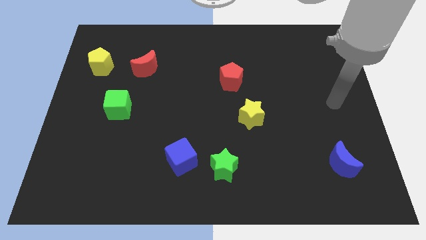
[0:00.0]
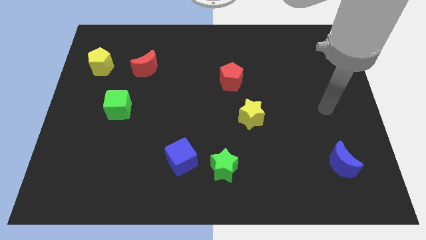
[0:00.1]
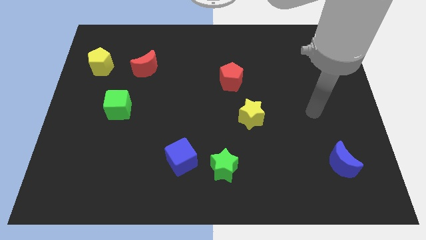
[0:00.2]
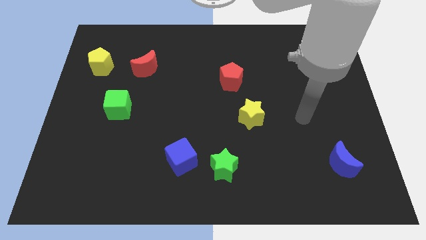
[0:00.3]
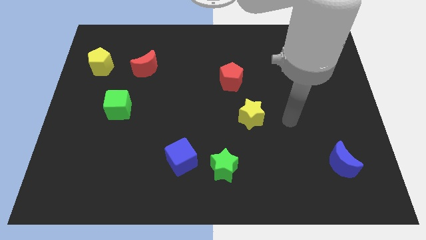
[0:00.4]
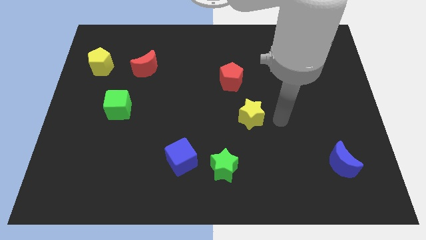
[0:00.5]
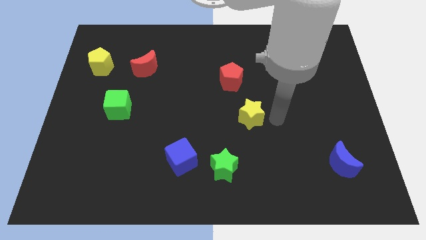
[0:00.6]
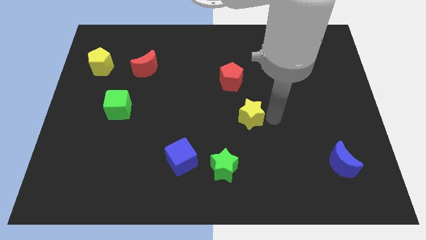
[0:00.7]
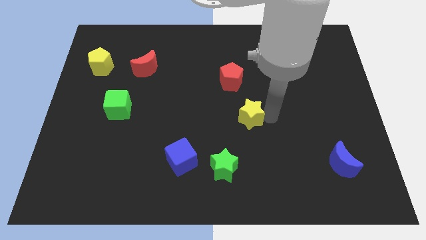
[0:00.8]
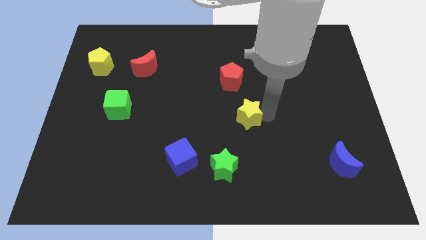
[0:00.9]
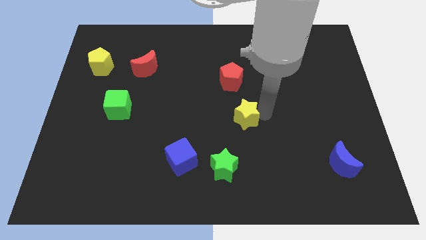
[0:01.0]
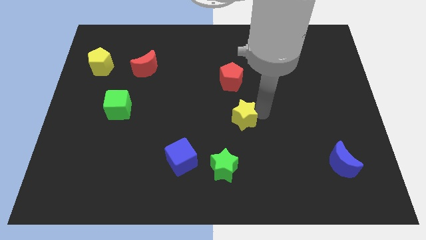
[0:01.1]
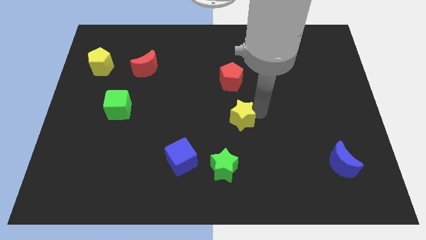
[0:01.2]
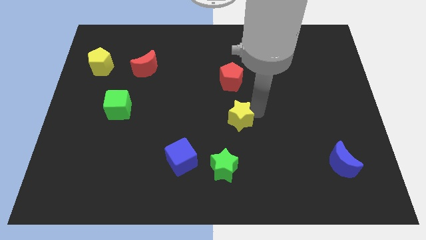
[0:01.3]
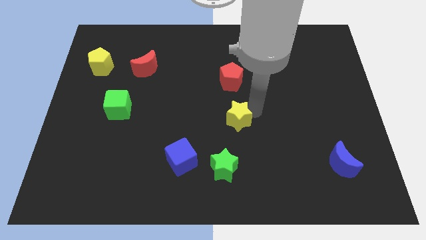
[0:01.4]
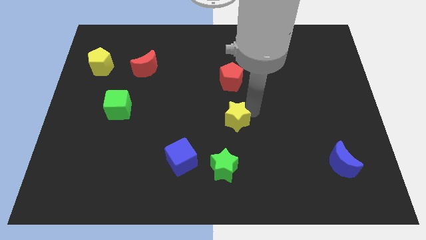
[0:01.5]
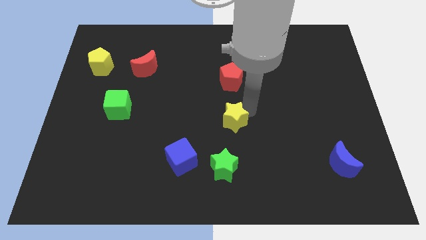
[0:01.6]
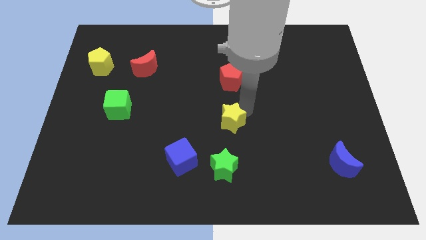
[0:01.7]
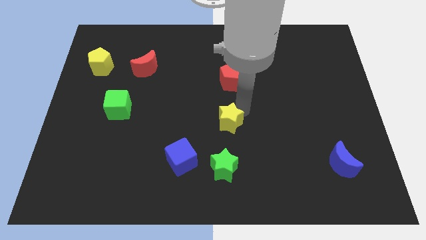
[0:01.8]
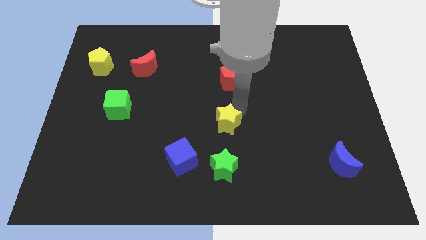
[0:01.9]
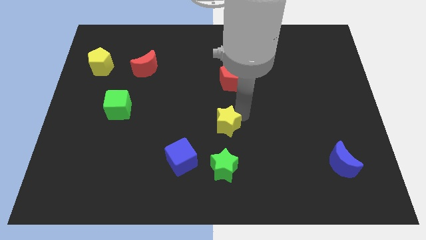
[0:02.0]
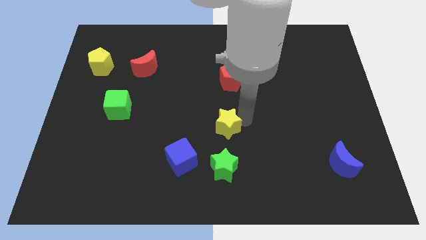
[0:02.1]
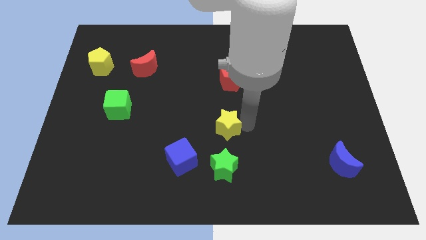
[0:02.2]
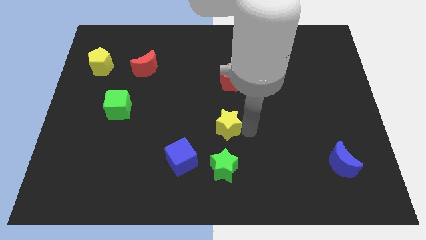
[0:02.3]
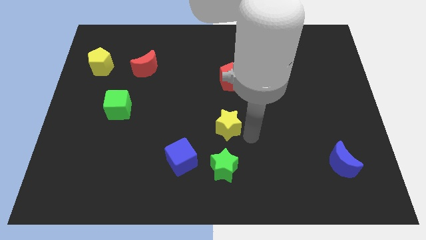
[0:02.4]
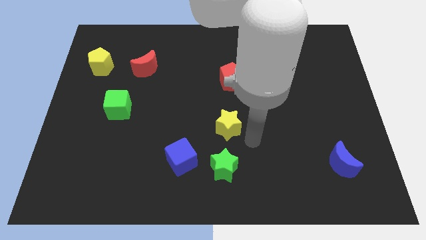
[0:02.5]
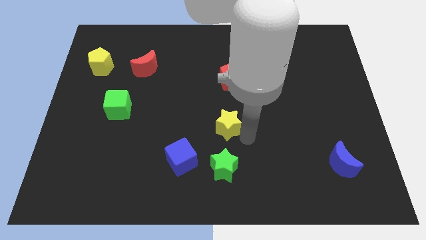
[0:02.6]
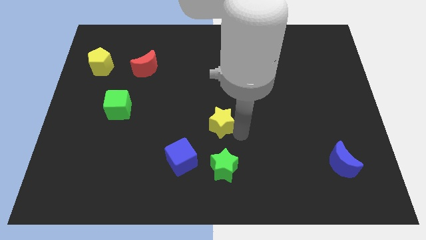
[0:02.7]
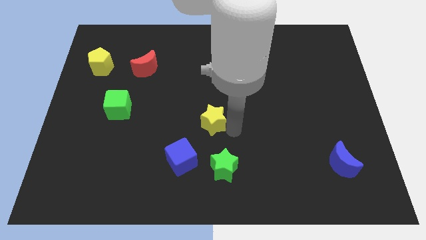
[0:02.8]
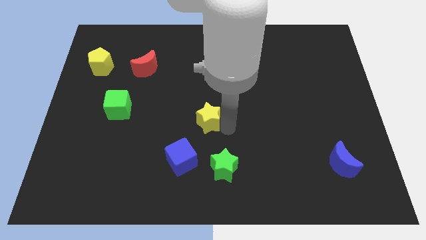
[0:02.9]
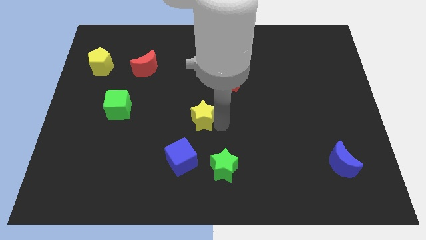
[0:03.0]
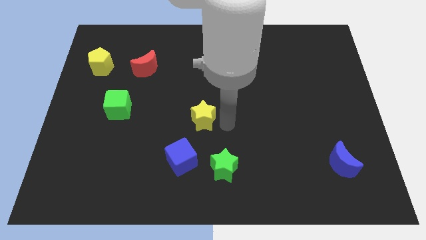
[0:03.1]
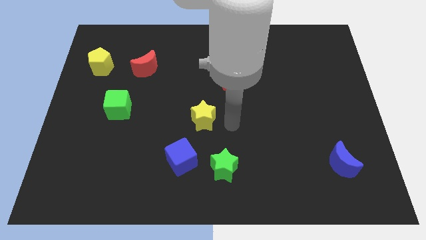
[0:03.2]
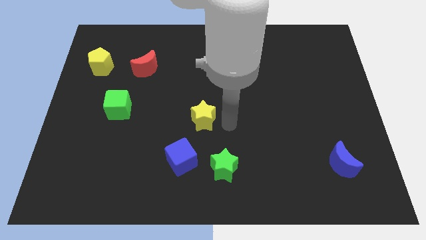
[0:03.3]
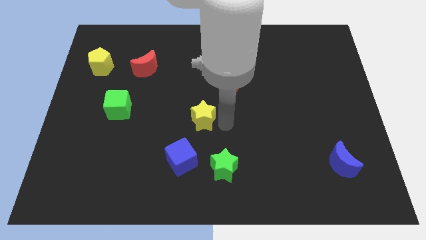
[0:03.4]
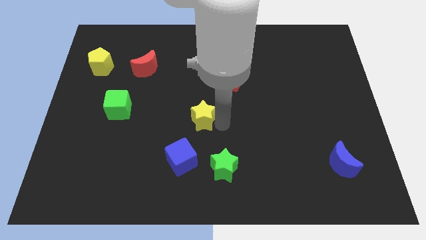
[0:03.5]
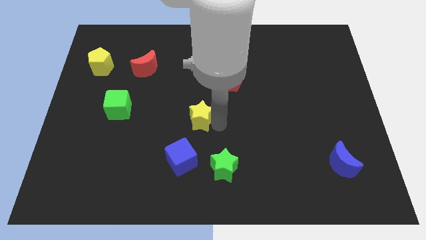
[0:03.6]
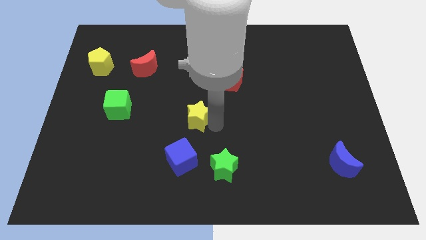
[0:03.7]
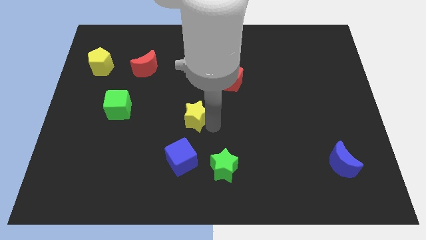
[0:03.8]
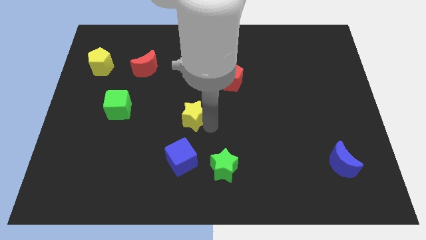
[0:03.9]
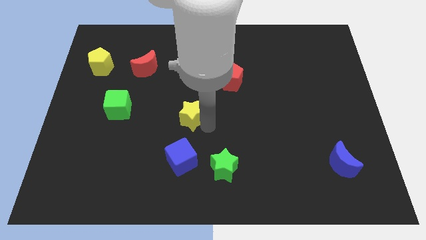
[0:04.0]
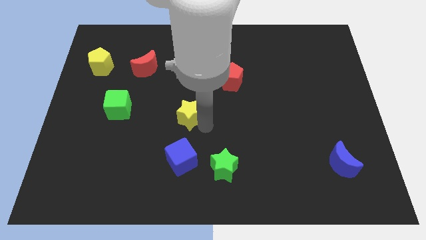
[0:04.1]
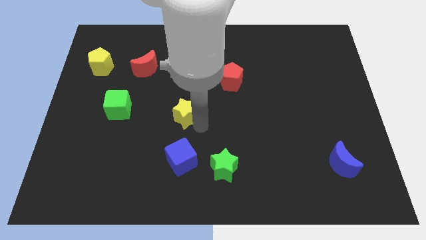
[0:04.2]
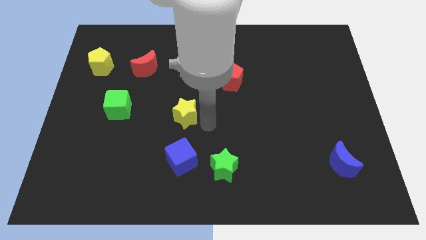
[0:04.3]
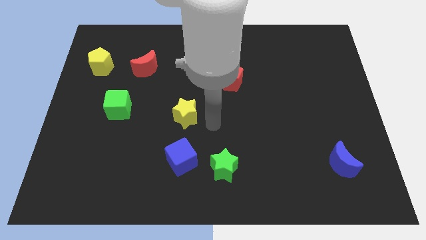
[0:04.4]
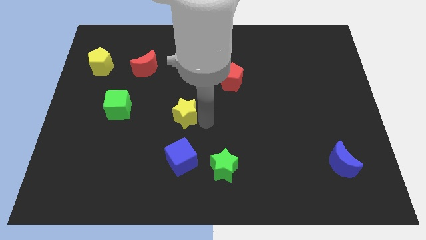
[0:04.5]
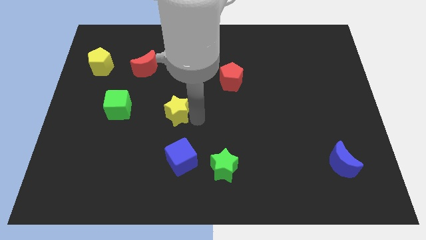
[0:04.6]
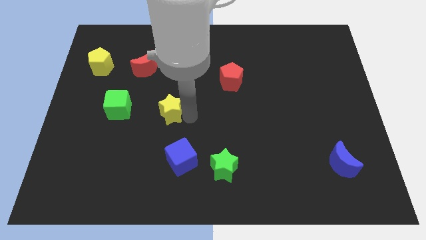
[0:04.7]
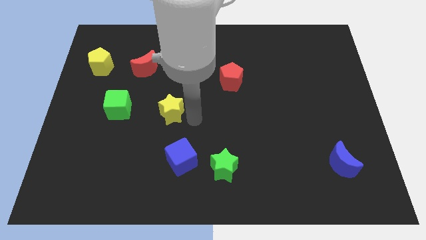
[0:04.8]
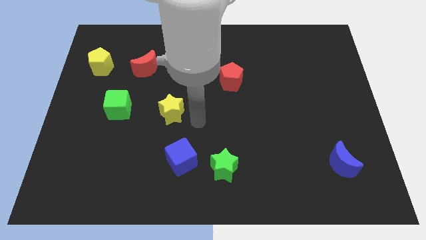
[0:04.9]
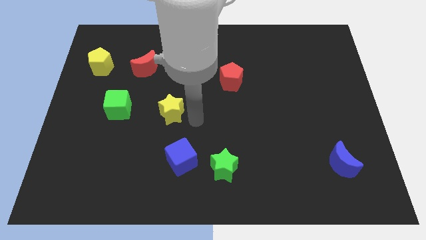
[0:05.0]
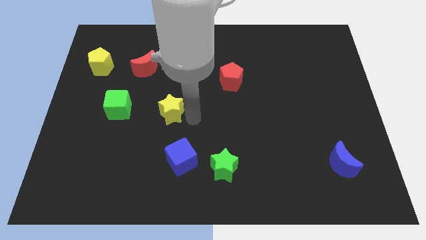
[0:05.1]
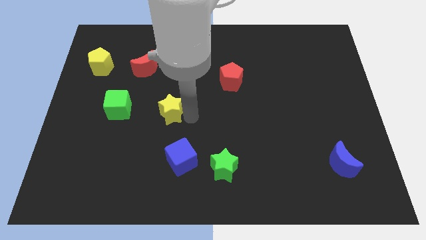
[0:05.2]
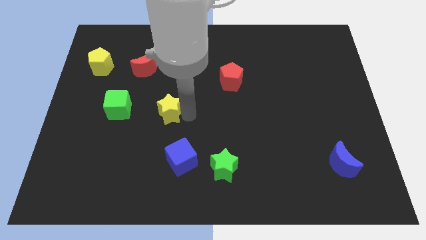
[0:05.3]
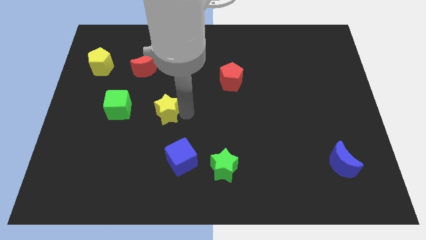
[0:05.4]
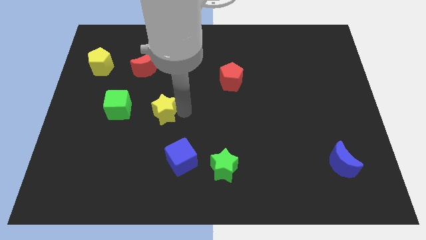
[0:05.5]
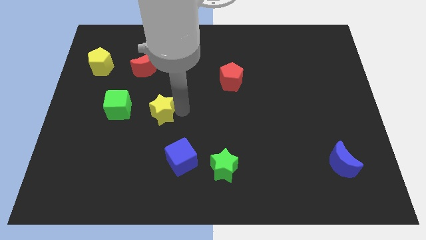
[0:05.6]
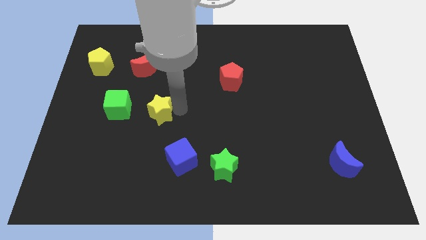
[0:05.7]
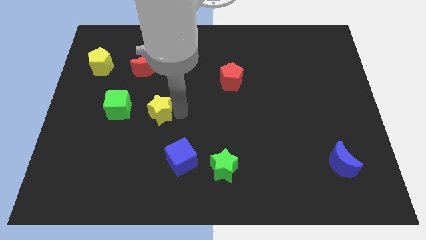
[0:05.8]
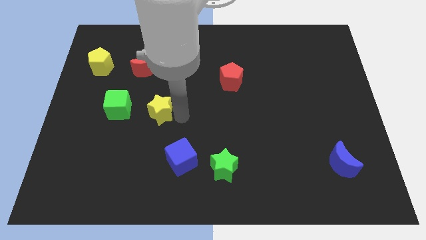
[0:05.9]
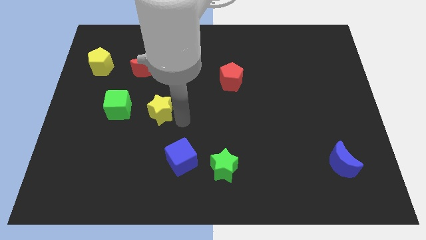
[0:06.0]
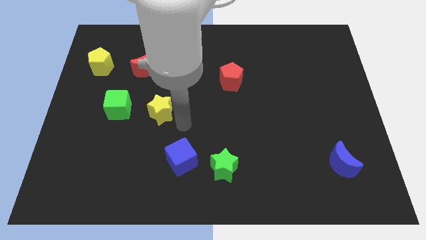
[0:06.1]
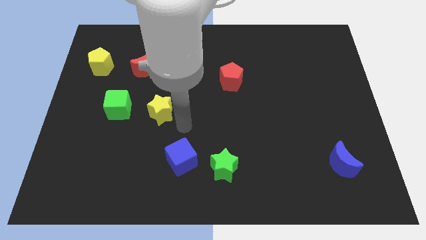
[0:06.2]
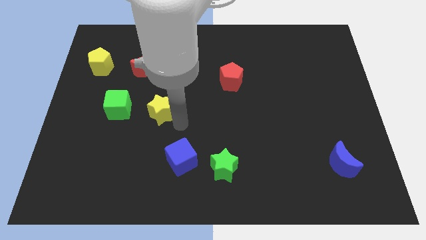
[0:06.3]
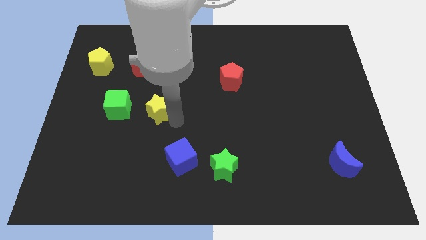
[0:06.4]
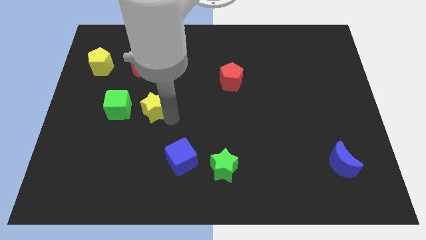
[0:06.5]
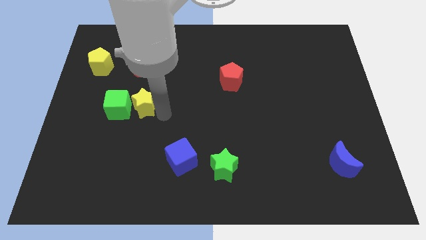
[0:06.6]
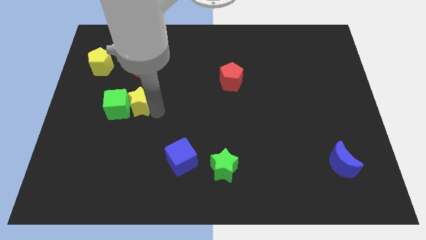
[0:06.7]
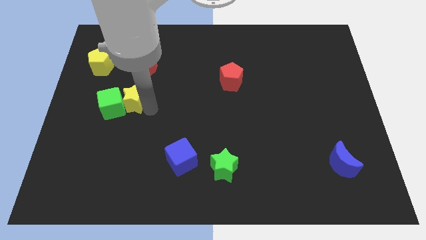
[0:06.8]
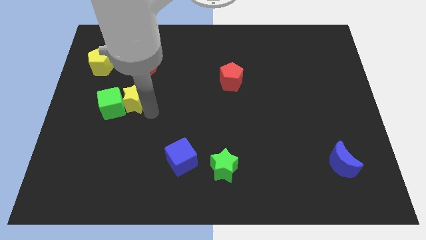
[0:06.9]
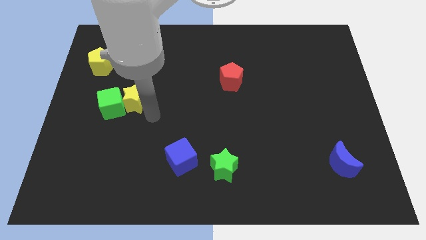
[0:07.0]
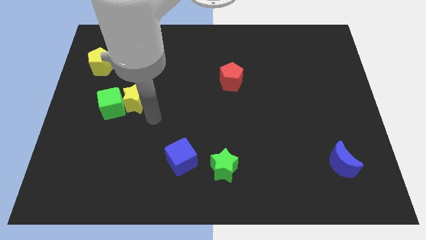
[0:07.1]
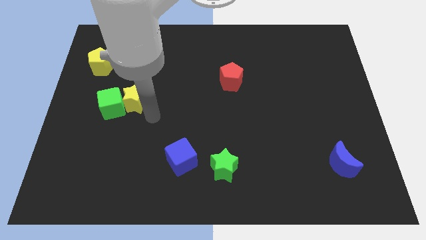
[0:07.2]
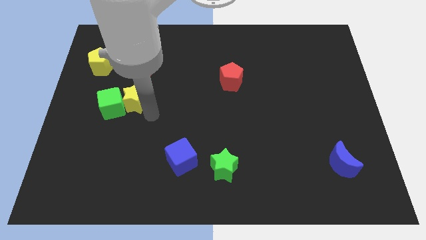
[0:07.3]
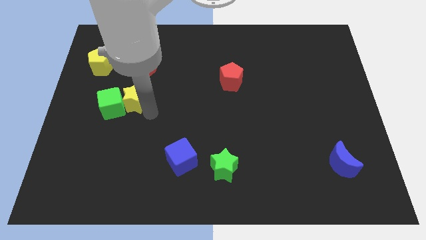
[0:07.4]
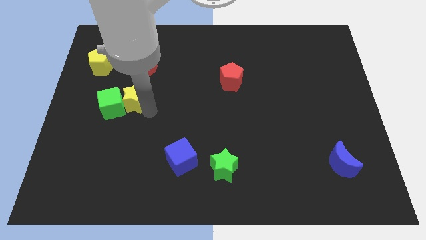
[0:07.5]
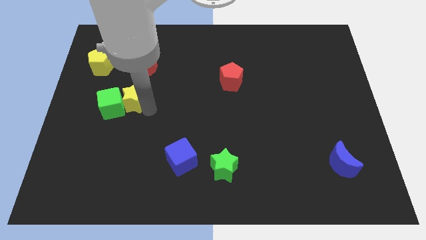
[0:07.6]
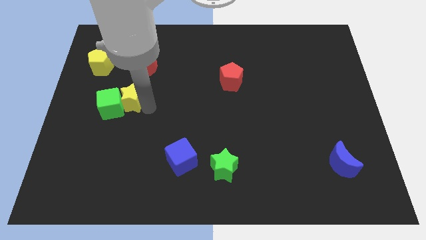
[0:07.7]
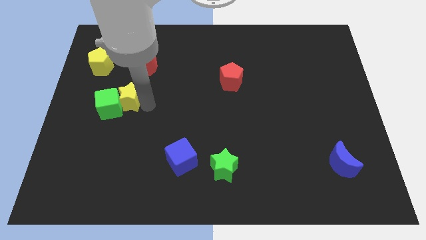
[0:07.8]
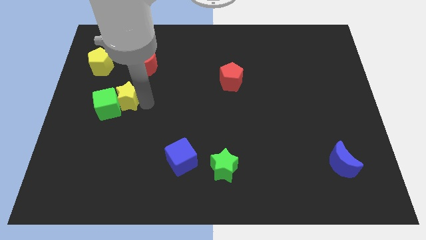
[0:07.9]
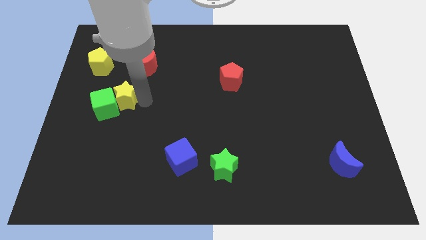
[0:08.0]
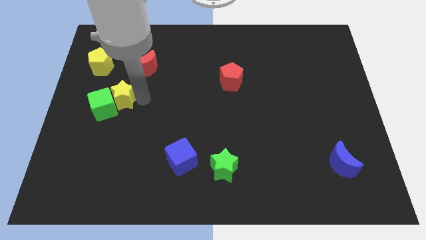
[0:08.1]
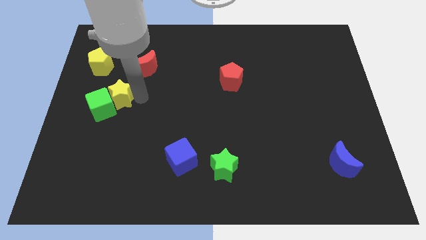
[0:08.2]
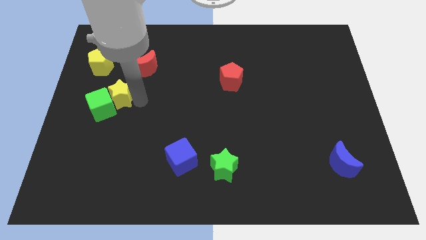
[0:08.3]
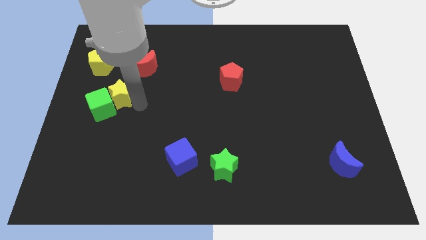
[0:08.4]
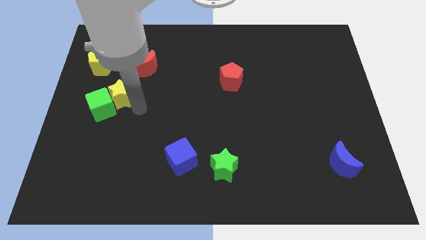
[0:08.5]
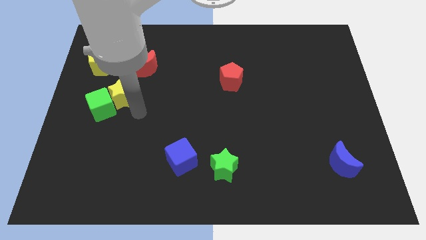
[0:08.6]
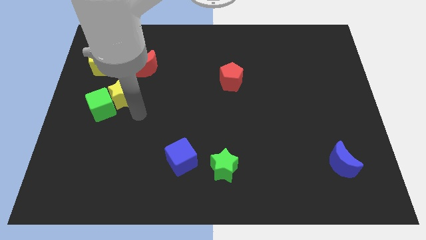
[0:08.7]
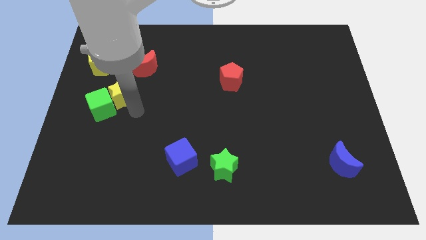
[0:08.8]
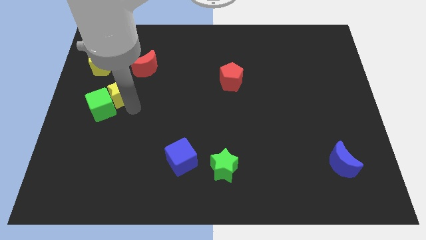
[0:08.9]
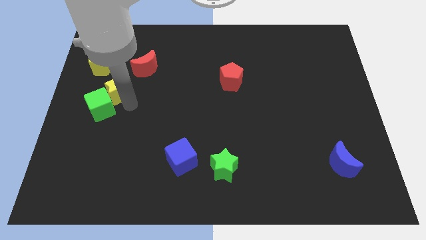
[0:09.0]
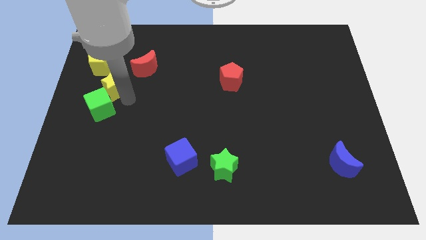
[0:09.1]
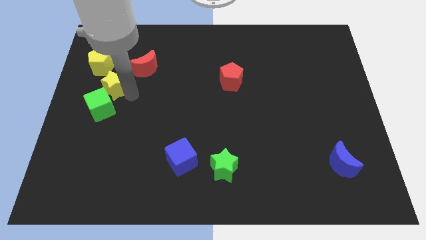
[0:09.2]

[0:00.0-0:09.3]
slide the yellow star to the bottom side of the yellow pentagon
